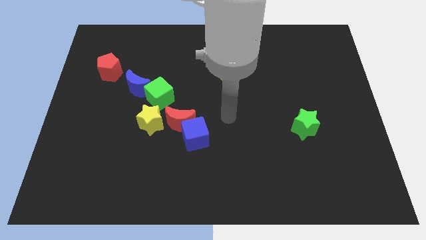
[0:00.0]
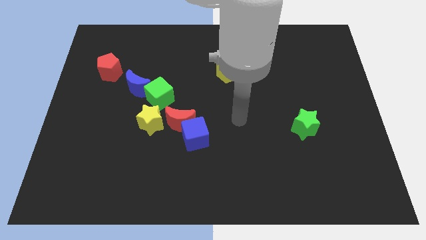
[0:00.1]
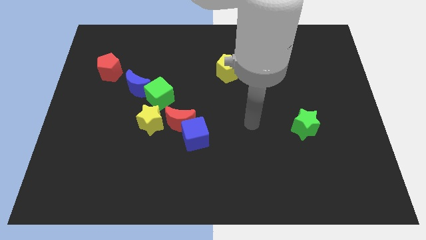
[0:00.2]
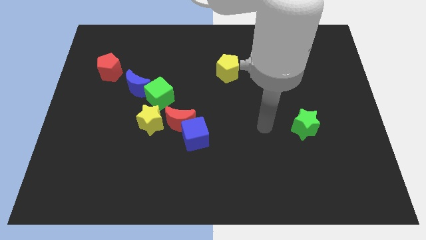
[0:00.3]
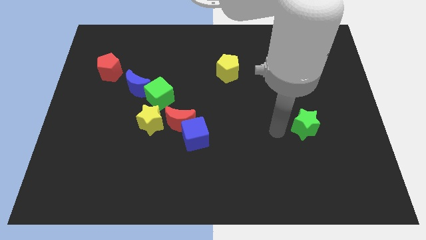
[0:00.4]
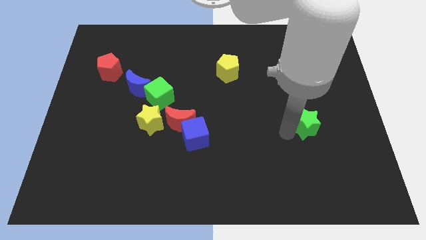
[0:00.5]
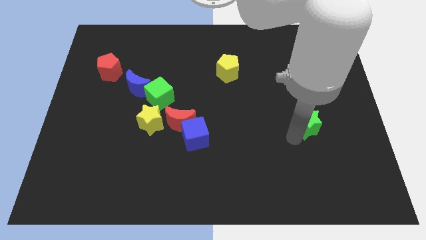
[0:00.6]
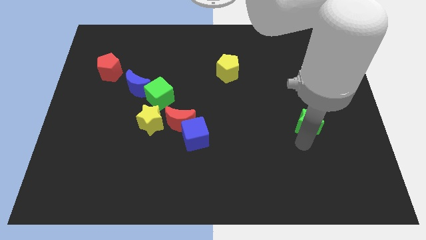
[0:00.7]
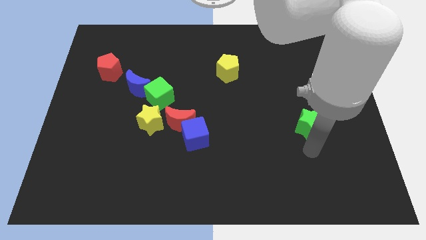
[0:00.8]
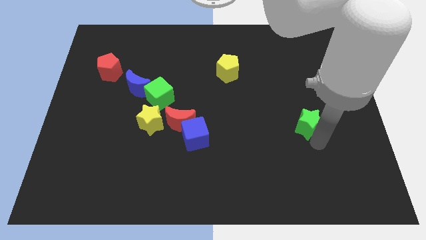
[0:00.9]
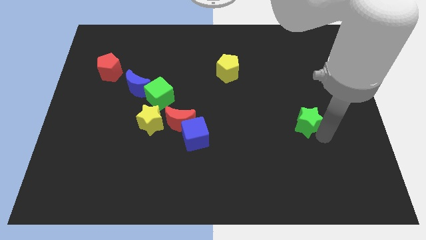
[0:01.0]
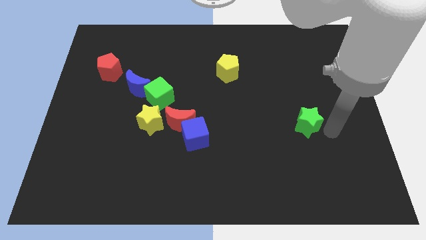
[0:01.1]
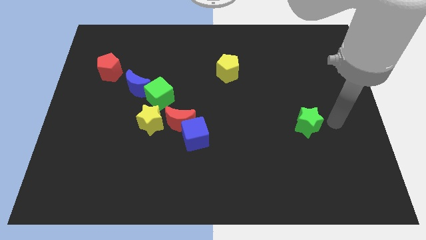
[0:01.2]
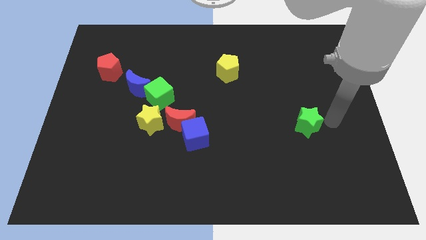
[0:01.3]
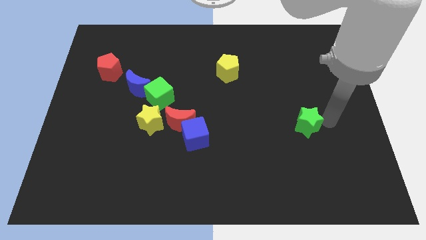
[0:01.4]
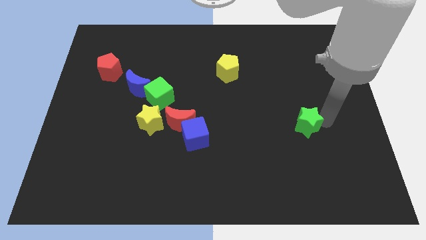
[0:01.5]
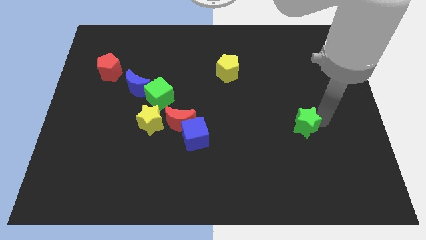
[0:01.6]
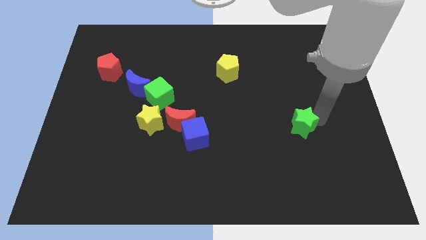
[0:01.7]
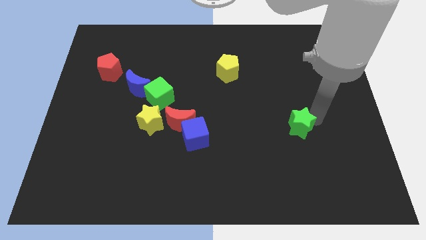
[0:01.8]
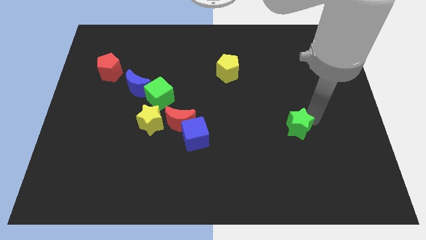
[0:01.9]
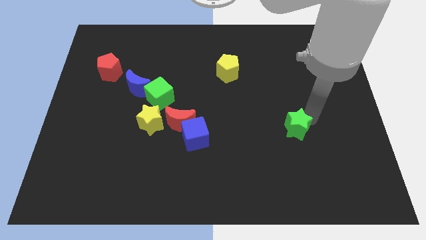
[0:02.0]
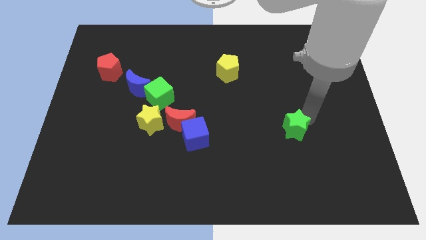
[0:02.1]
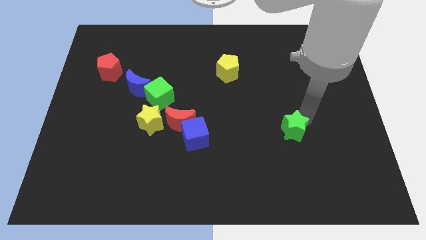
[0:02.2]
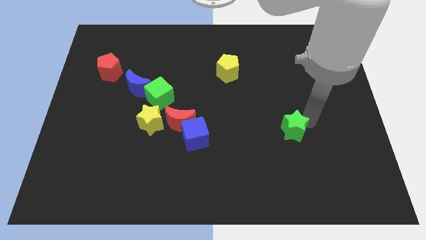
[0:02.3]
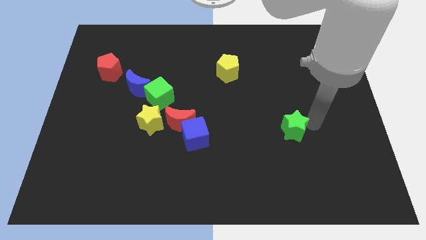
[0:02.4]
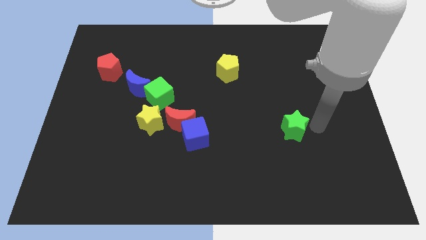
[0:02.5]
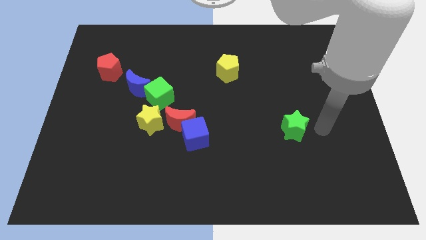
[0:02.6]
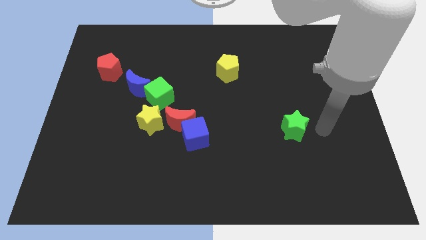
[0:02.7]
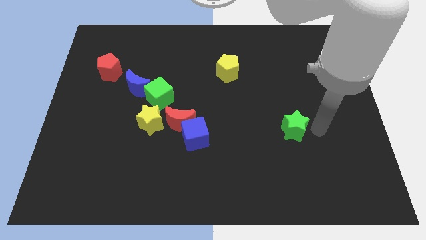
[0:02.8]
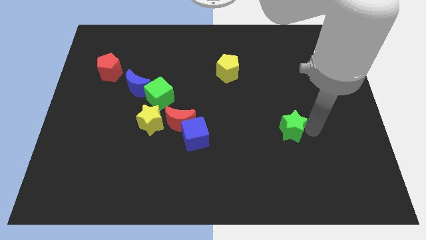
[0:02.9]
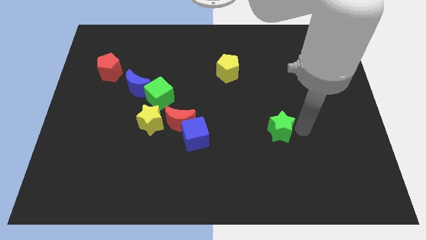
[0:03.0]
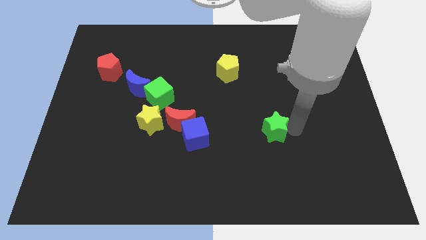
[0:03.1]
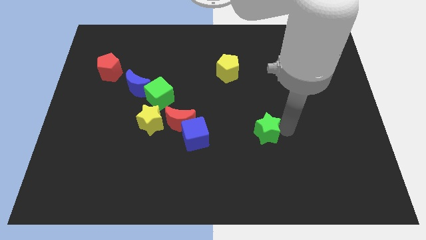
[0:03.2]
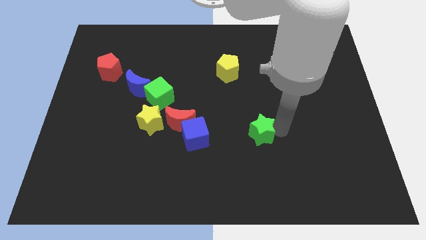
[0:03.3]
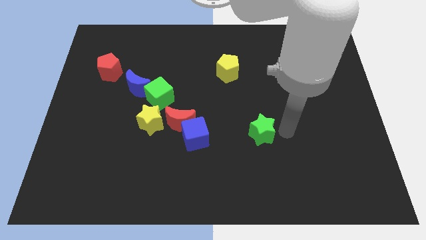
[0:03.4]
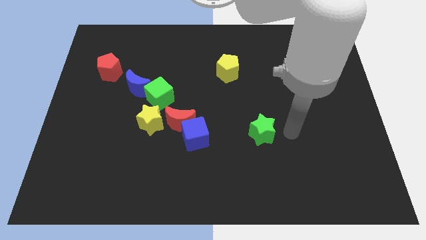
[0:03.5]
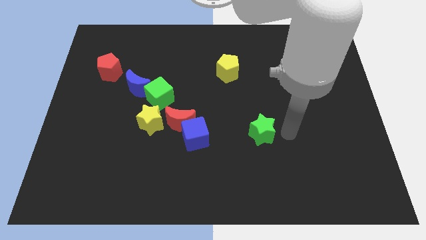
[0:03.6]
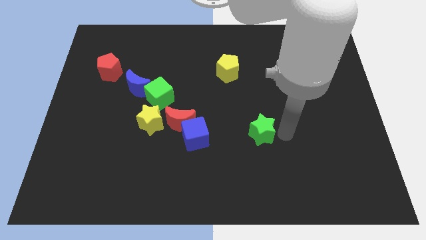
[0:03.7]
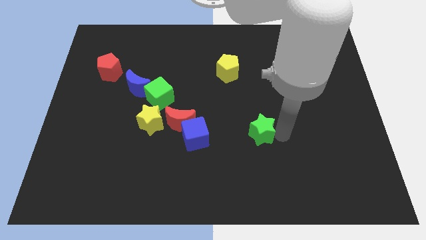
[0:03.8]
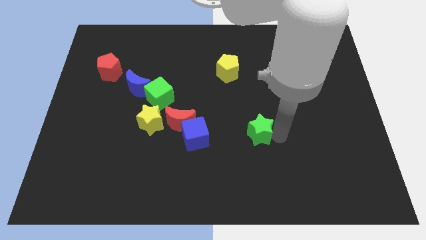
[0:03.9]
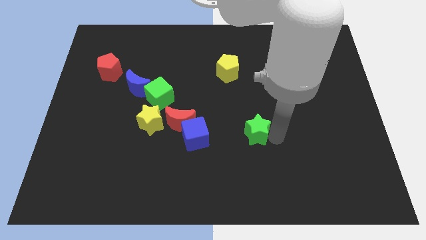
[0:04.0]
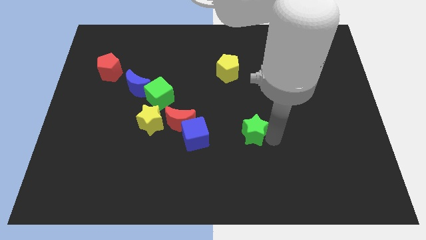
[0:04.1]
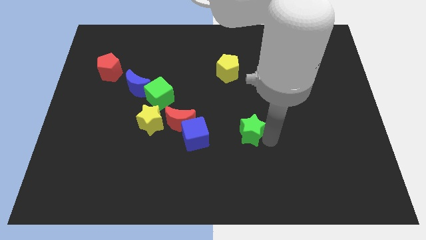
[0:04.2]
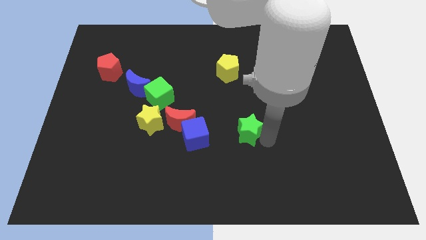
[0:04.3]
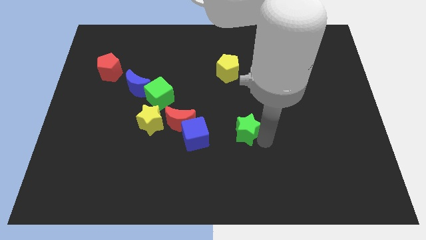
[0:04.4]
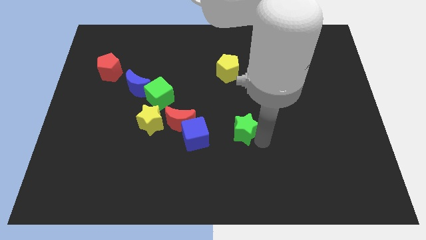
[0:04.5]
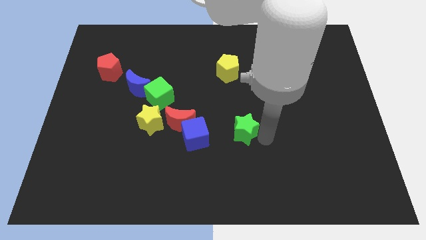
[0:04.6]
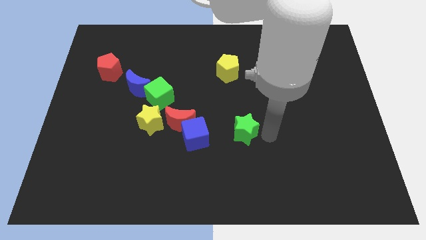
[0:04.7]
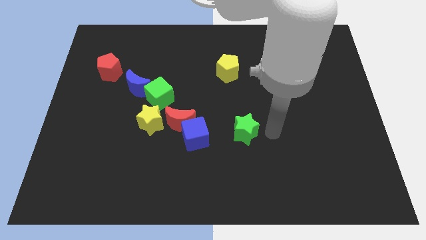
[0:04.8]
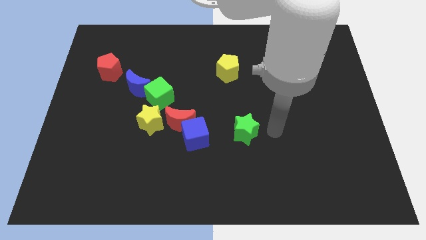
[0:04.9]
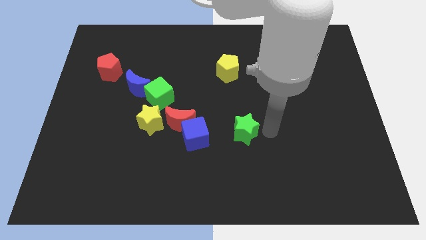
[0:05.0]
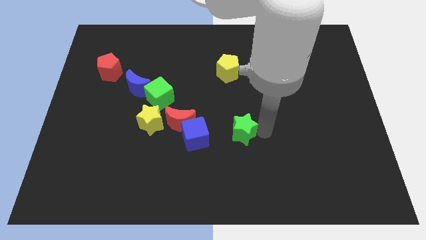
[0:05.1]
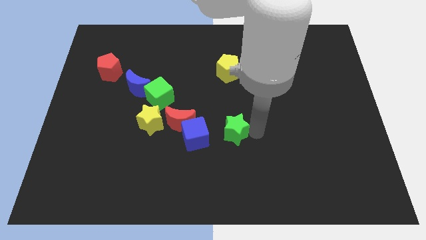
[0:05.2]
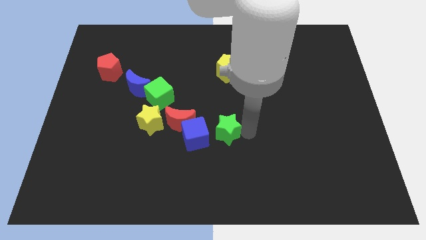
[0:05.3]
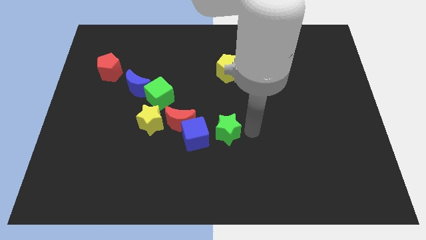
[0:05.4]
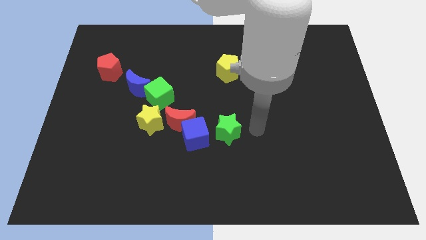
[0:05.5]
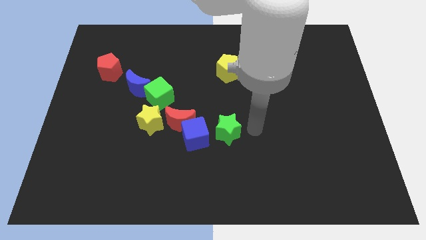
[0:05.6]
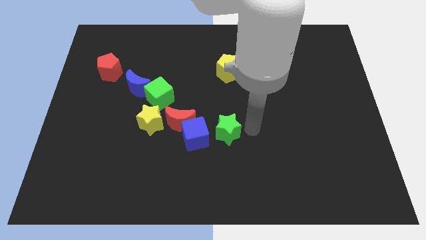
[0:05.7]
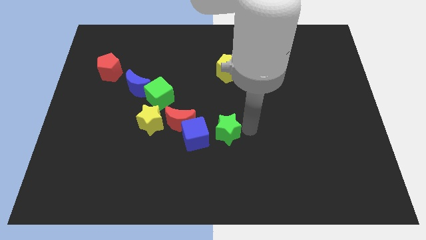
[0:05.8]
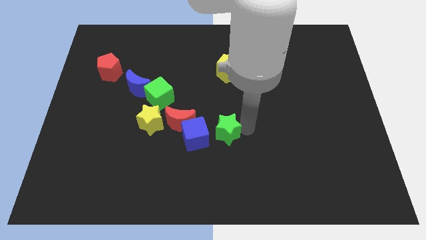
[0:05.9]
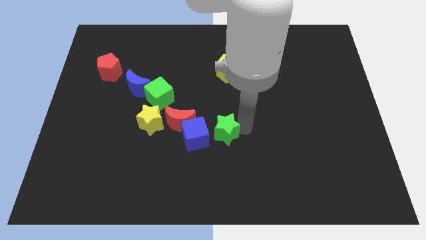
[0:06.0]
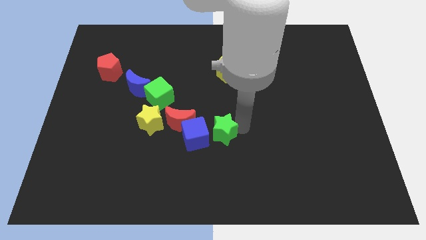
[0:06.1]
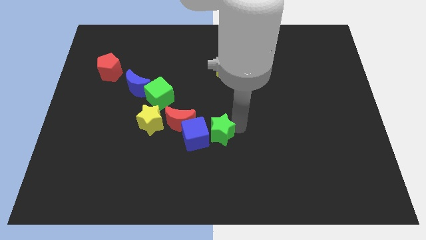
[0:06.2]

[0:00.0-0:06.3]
put the green star next to the blue cube
